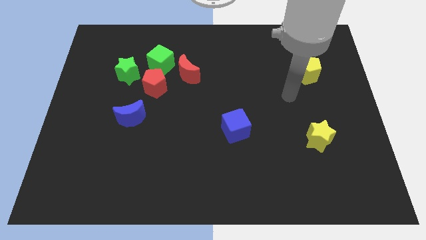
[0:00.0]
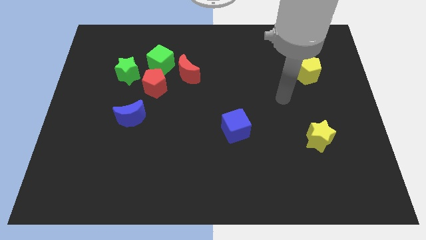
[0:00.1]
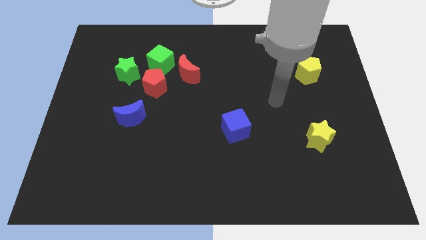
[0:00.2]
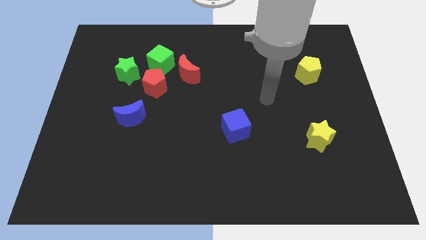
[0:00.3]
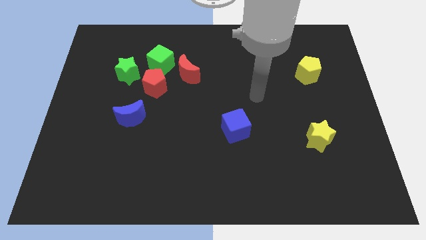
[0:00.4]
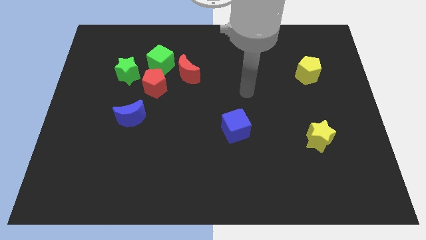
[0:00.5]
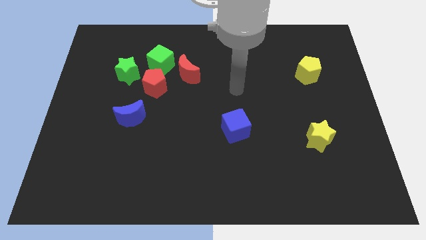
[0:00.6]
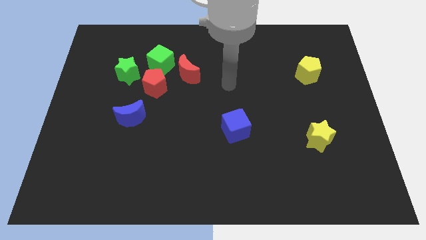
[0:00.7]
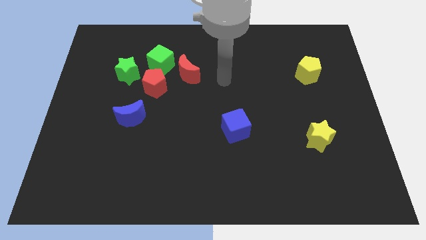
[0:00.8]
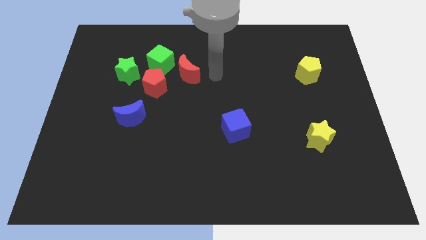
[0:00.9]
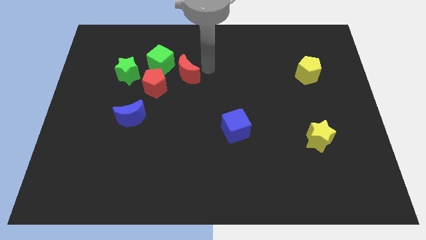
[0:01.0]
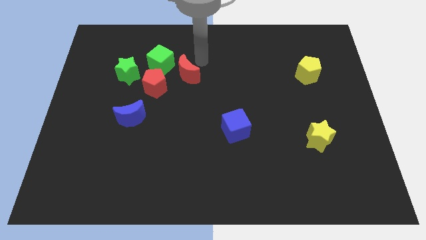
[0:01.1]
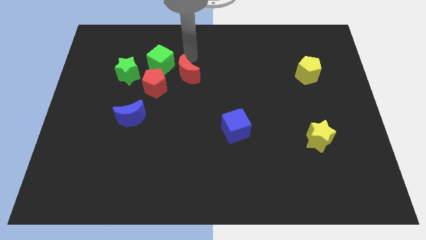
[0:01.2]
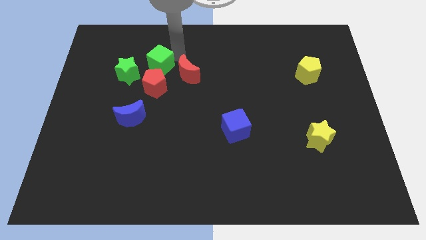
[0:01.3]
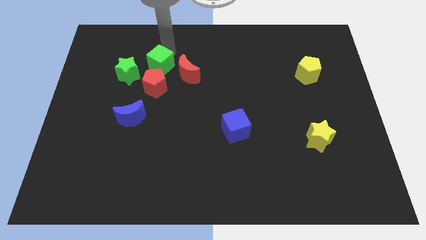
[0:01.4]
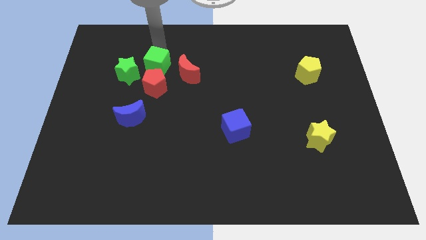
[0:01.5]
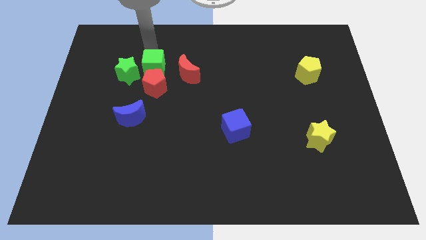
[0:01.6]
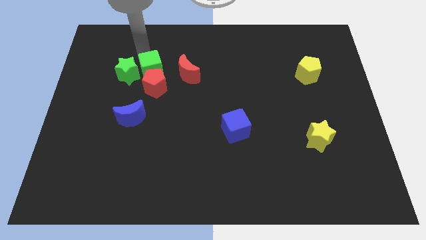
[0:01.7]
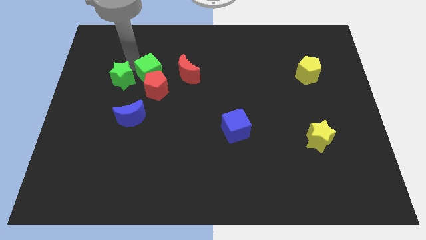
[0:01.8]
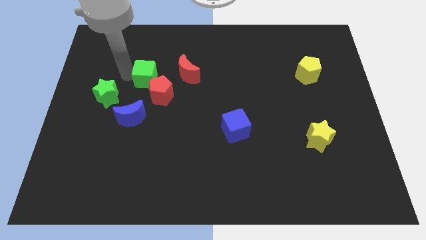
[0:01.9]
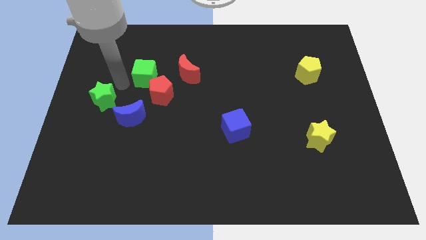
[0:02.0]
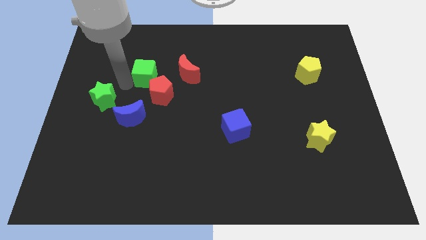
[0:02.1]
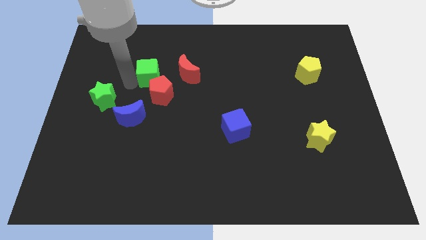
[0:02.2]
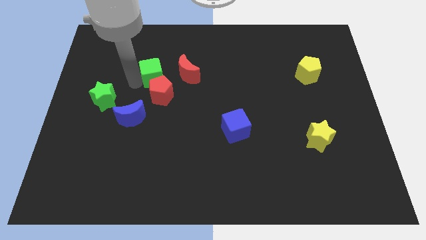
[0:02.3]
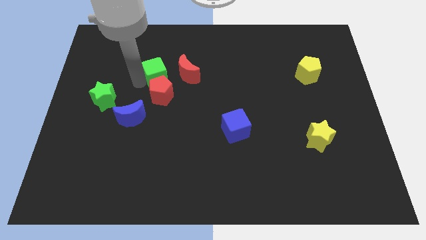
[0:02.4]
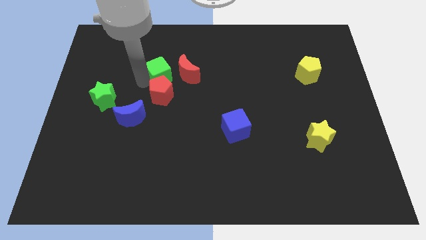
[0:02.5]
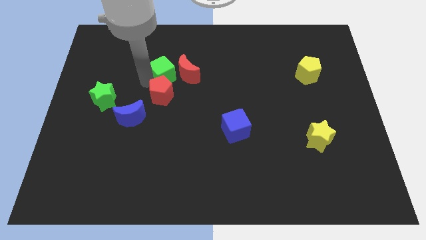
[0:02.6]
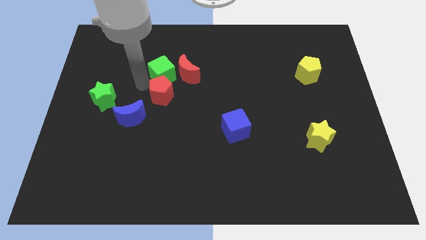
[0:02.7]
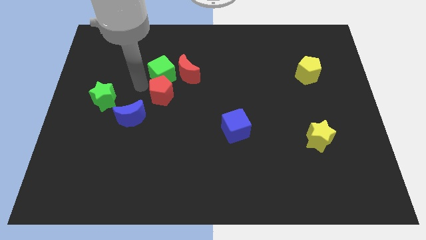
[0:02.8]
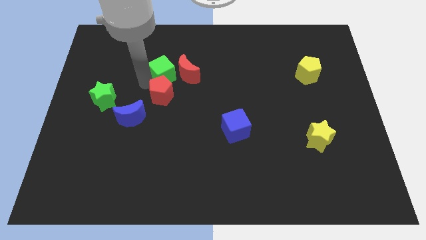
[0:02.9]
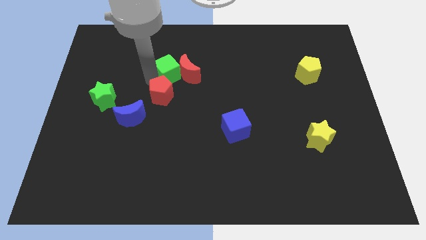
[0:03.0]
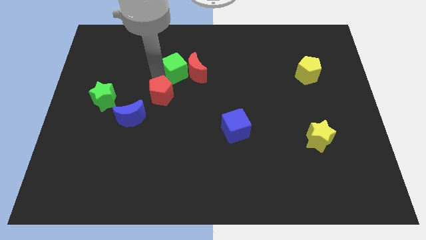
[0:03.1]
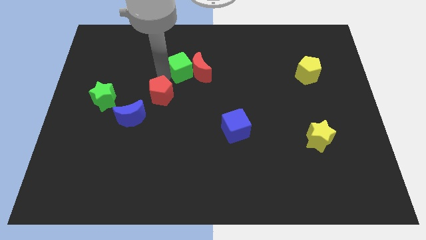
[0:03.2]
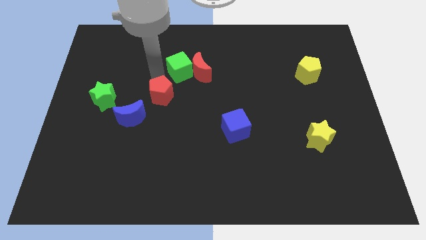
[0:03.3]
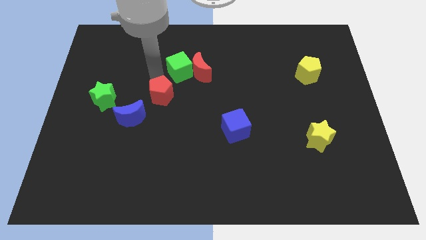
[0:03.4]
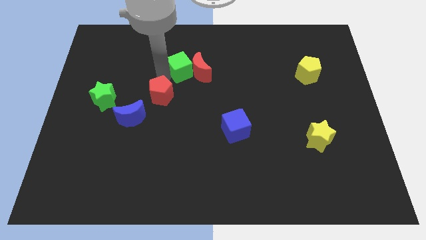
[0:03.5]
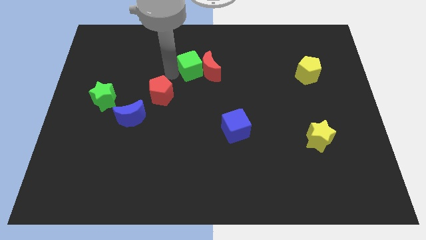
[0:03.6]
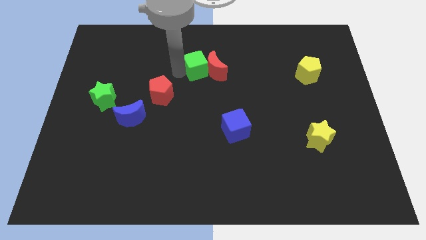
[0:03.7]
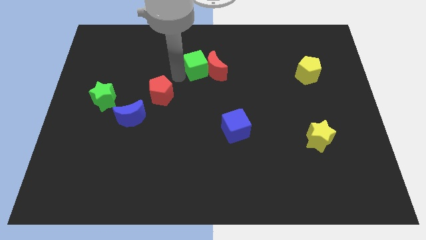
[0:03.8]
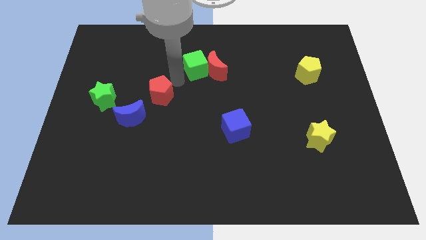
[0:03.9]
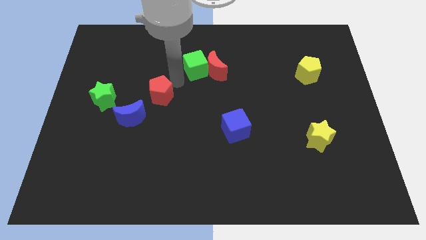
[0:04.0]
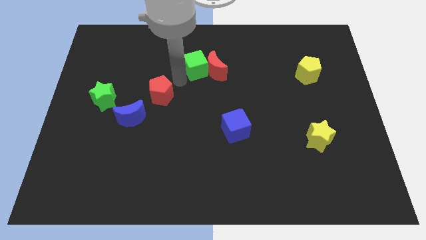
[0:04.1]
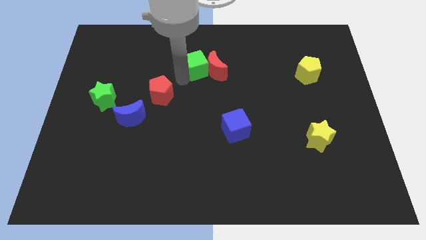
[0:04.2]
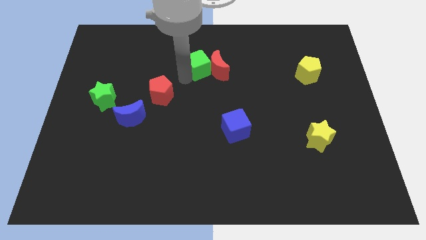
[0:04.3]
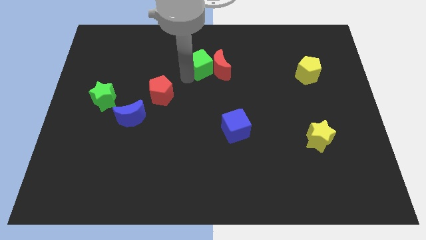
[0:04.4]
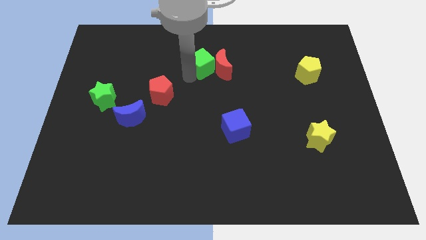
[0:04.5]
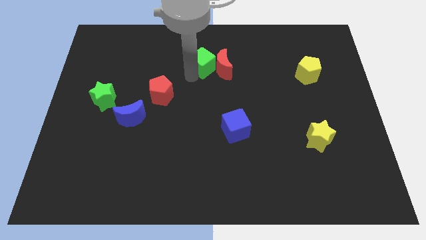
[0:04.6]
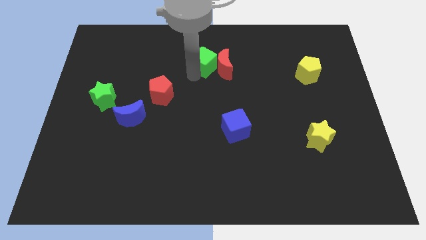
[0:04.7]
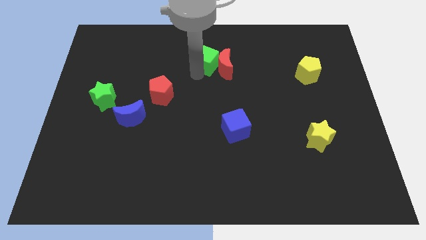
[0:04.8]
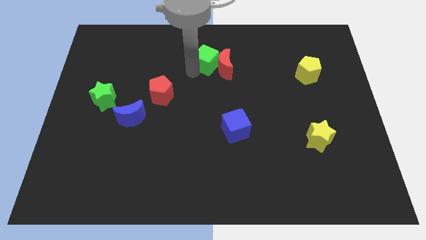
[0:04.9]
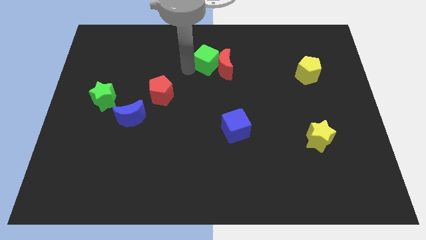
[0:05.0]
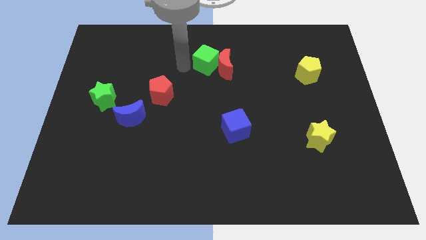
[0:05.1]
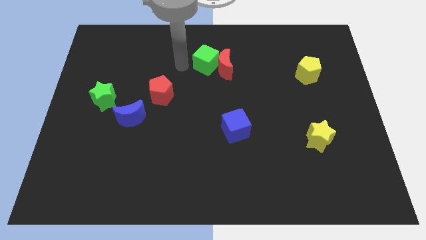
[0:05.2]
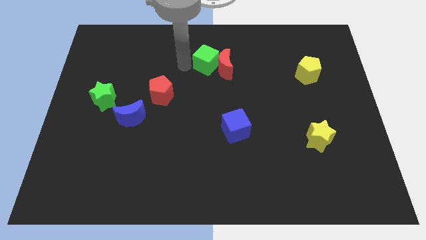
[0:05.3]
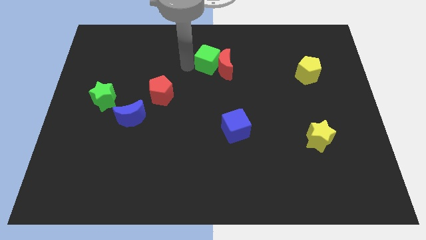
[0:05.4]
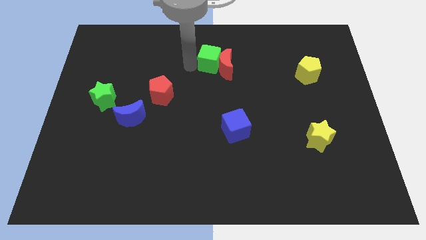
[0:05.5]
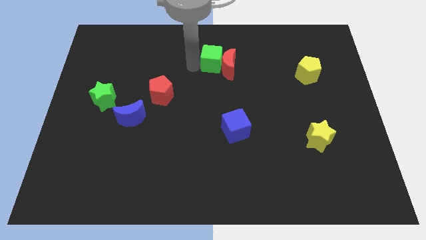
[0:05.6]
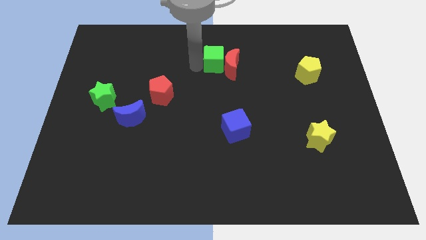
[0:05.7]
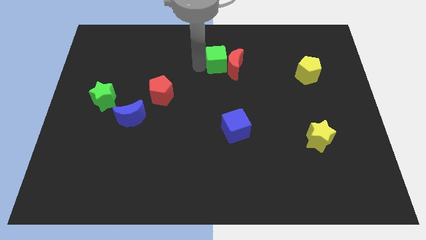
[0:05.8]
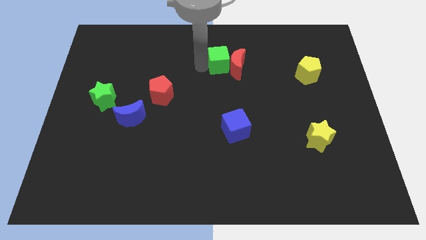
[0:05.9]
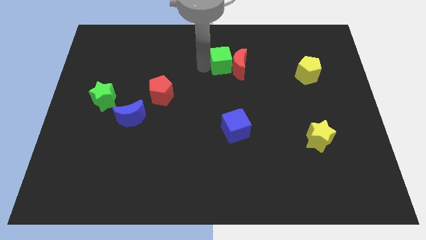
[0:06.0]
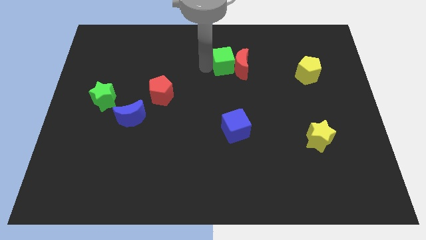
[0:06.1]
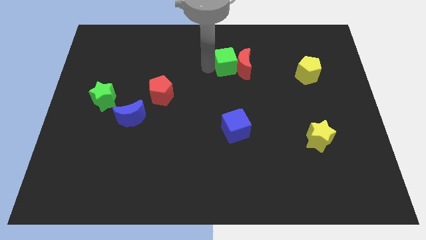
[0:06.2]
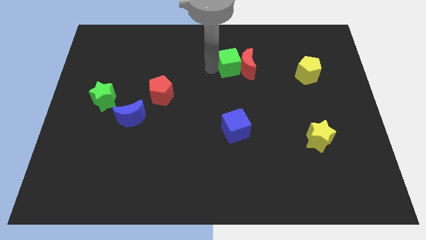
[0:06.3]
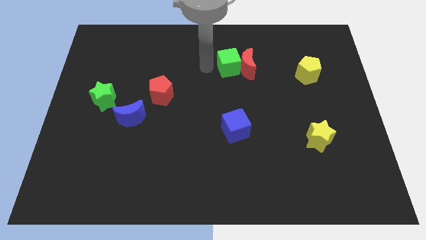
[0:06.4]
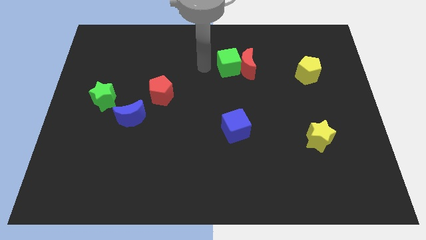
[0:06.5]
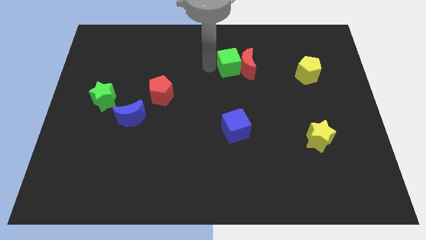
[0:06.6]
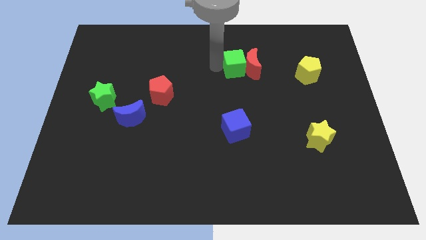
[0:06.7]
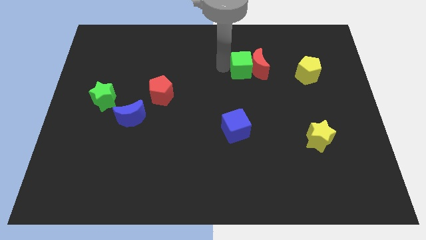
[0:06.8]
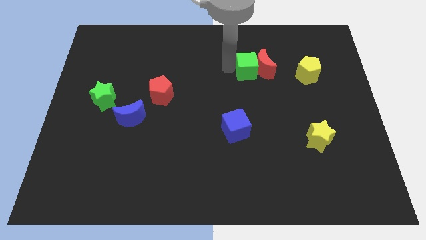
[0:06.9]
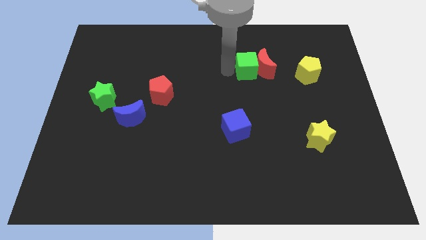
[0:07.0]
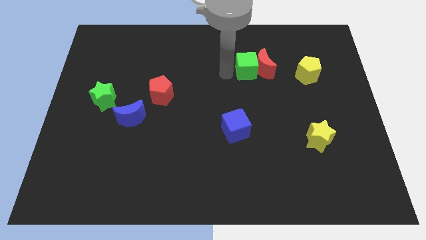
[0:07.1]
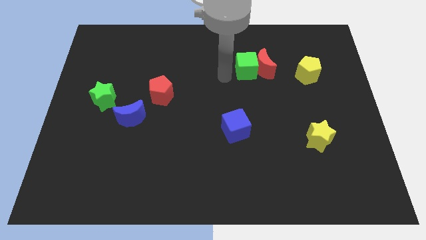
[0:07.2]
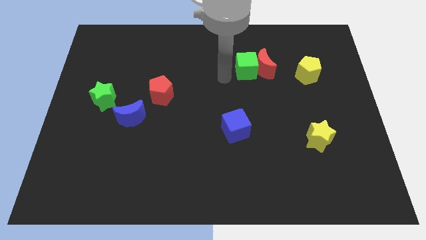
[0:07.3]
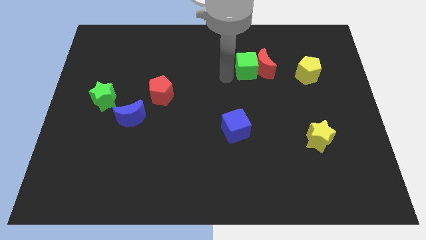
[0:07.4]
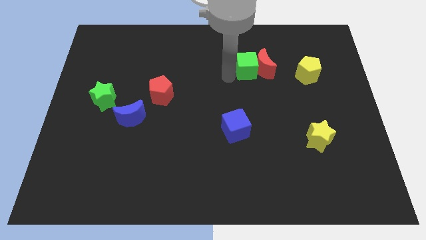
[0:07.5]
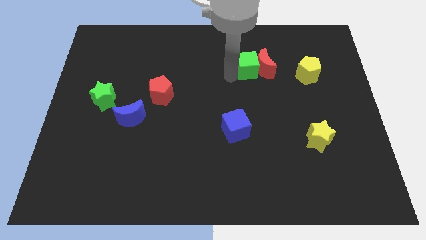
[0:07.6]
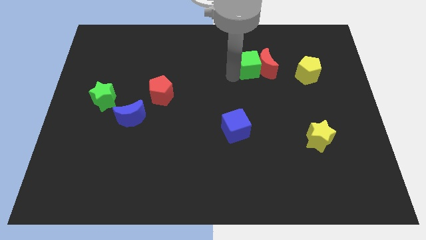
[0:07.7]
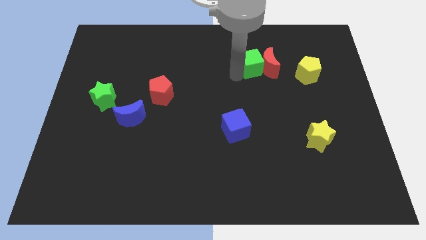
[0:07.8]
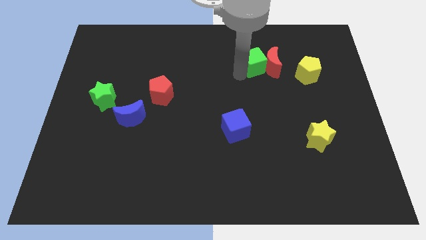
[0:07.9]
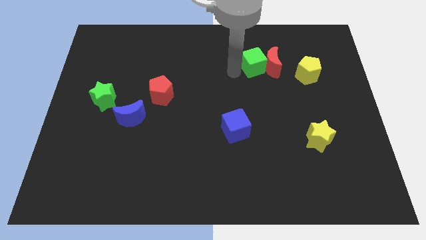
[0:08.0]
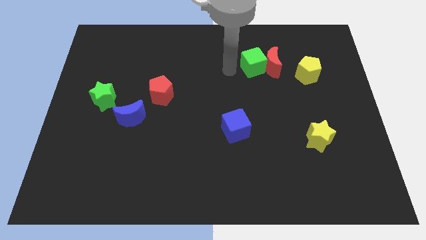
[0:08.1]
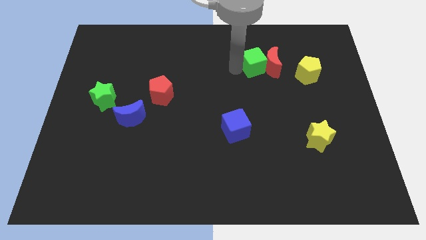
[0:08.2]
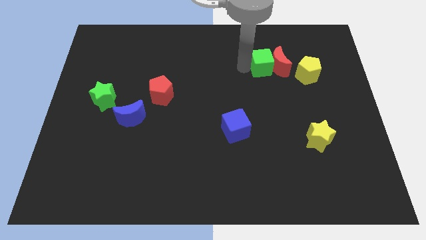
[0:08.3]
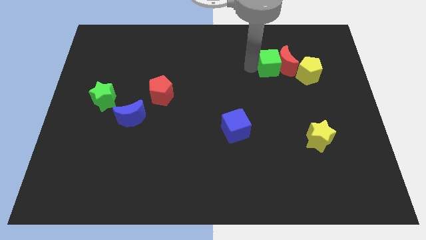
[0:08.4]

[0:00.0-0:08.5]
move the green cube to the top left of the yellow pentagon
